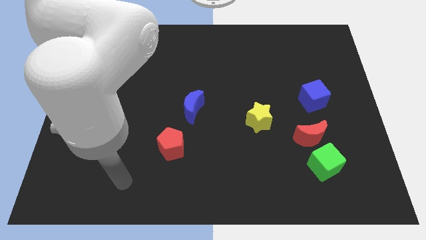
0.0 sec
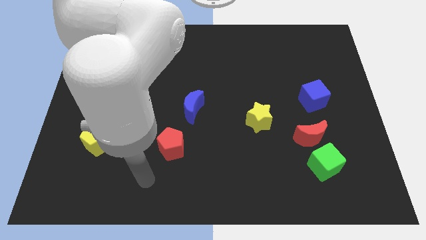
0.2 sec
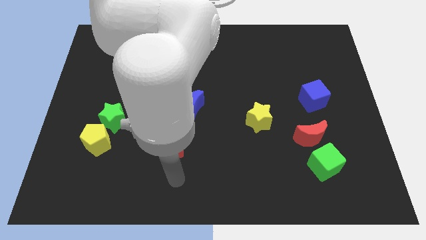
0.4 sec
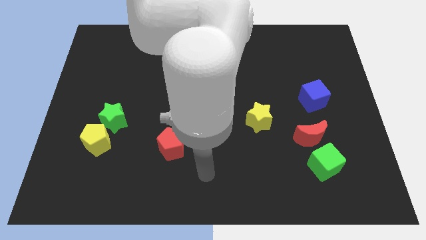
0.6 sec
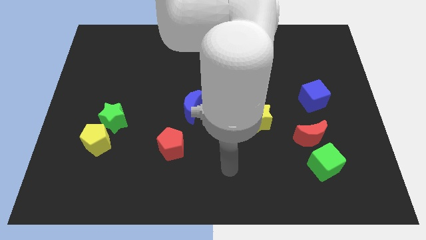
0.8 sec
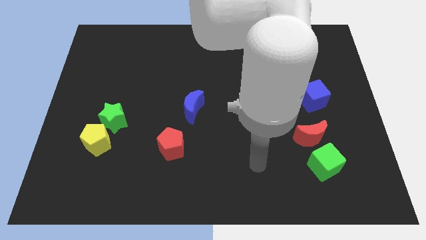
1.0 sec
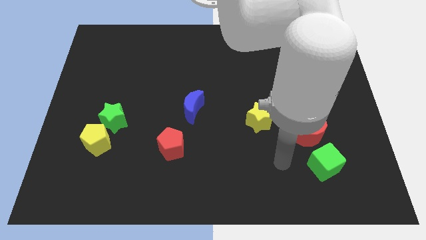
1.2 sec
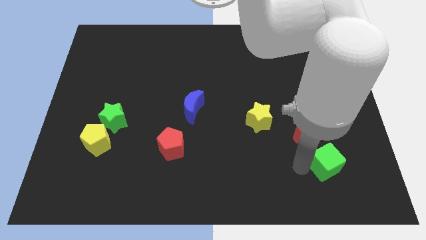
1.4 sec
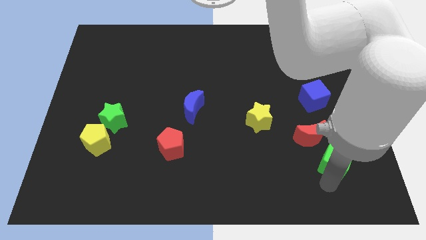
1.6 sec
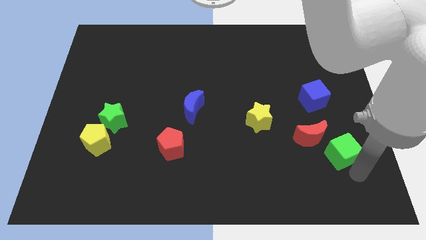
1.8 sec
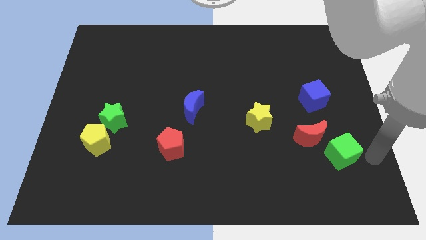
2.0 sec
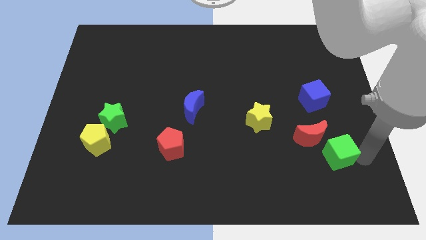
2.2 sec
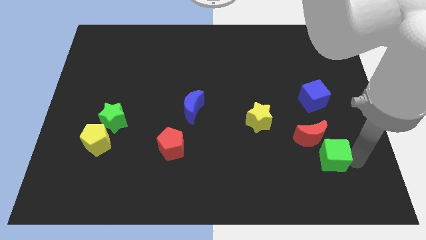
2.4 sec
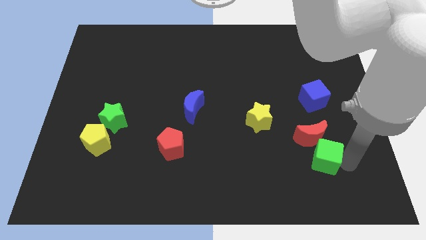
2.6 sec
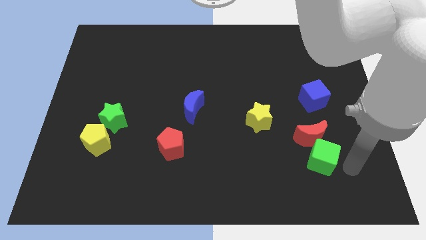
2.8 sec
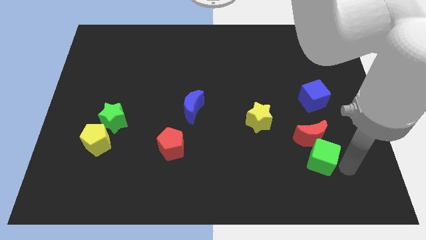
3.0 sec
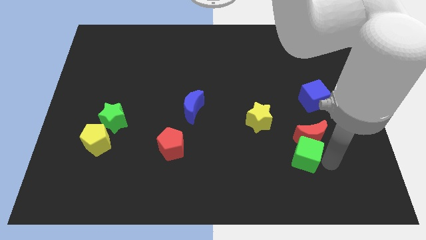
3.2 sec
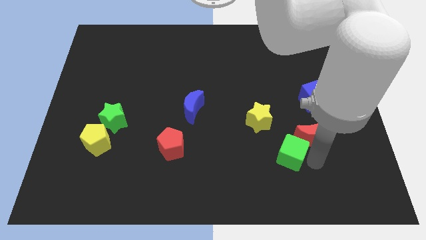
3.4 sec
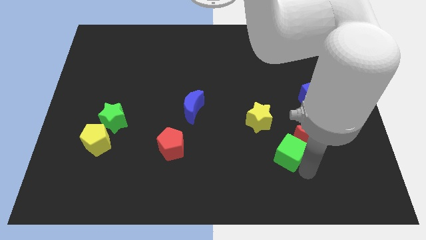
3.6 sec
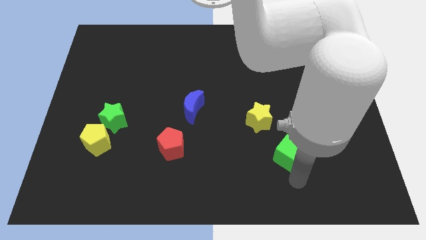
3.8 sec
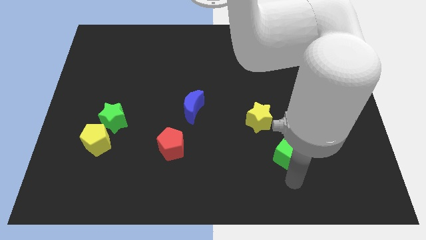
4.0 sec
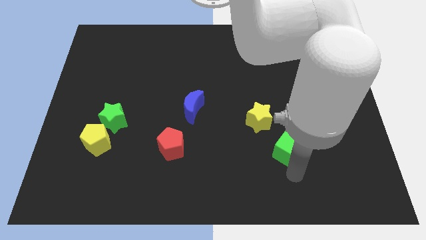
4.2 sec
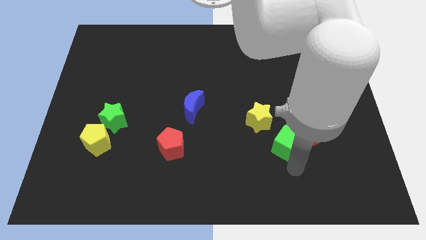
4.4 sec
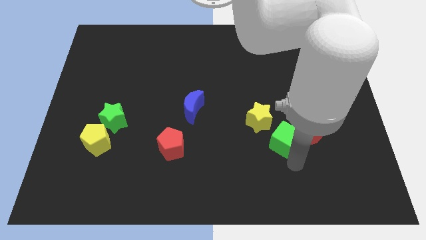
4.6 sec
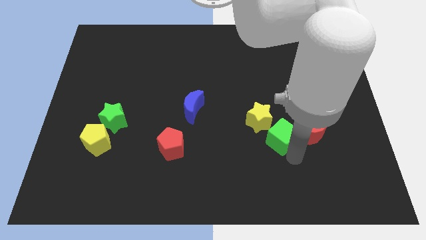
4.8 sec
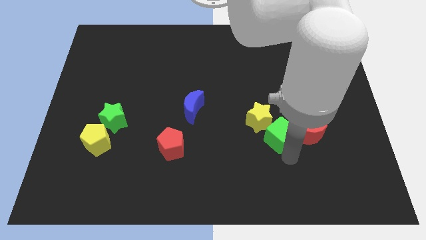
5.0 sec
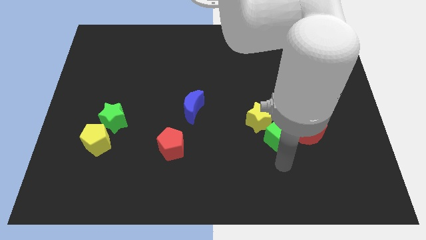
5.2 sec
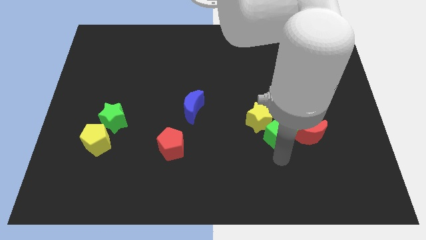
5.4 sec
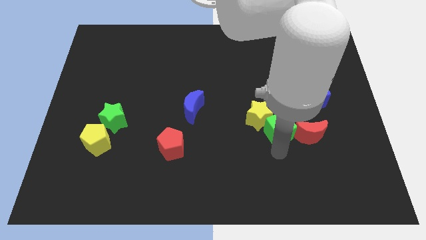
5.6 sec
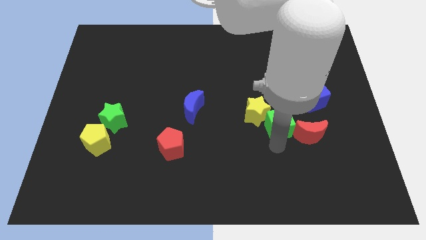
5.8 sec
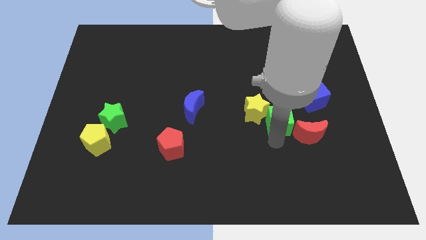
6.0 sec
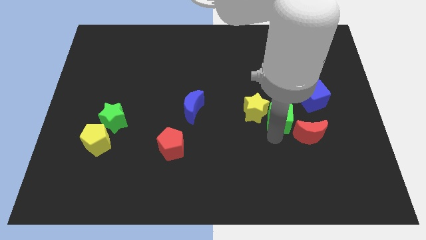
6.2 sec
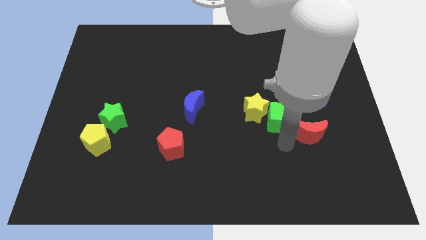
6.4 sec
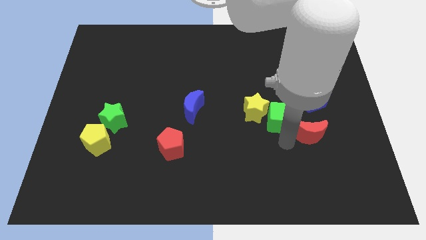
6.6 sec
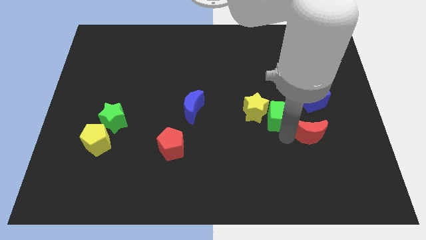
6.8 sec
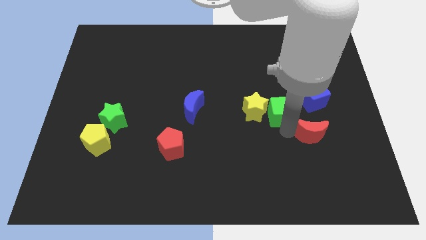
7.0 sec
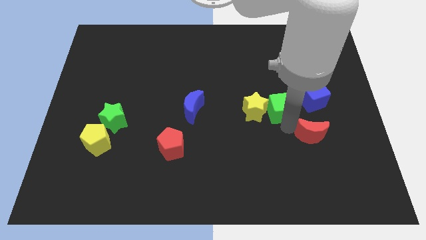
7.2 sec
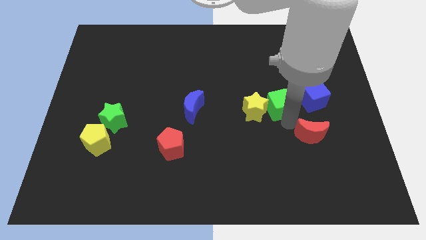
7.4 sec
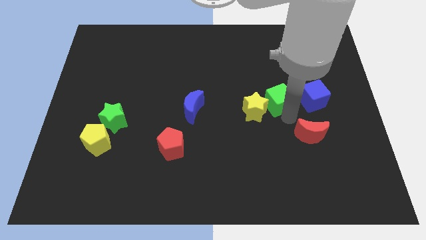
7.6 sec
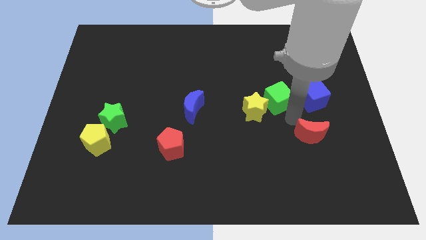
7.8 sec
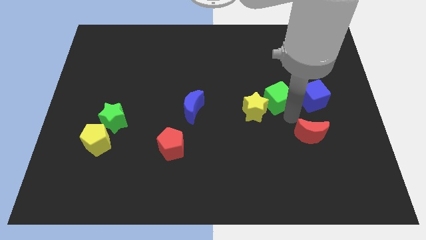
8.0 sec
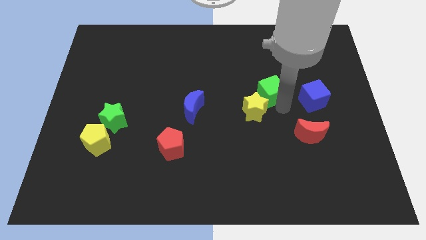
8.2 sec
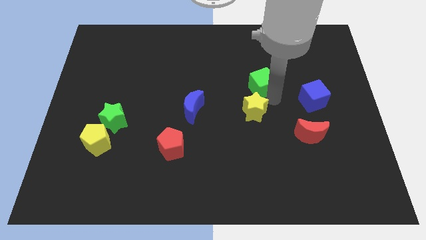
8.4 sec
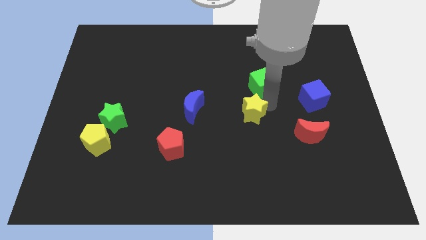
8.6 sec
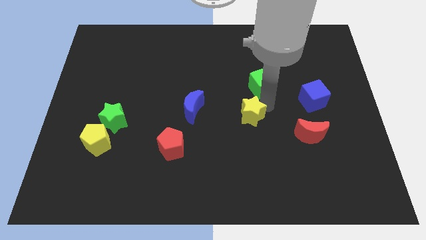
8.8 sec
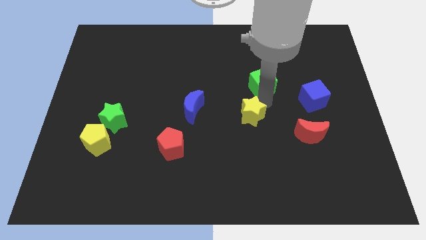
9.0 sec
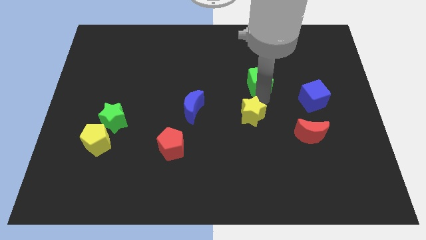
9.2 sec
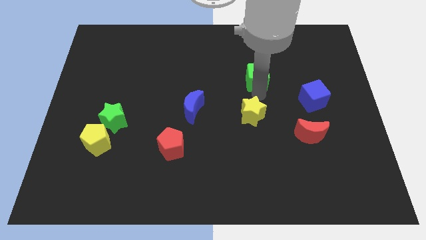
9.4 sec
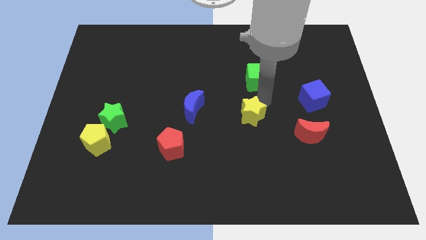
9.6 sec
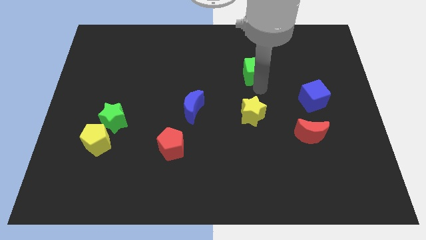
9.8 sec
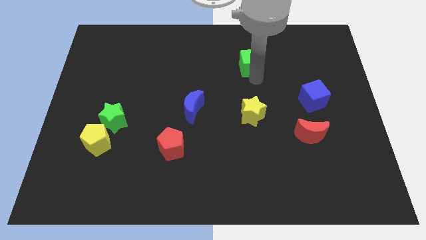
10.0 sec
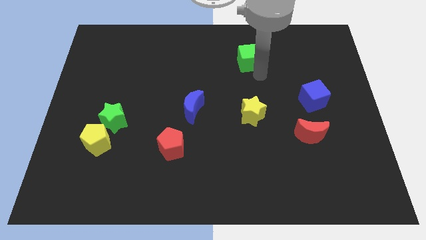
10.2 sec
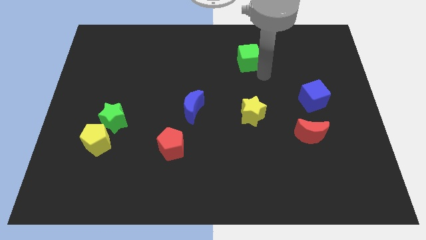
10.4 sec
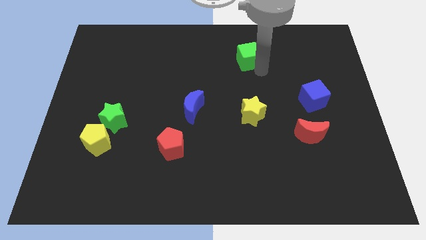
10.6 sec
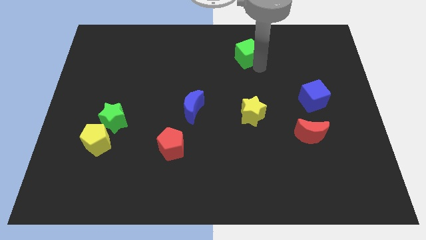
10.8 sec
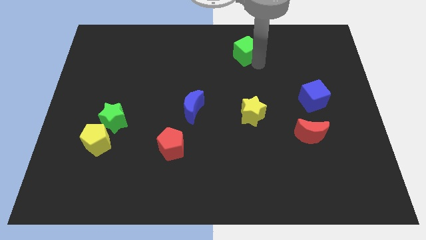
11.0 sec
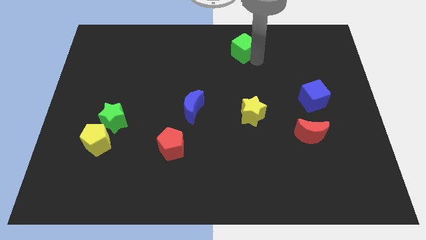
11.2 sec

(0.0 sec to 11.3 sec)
slide the green cube to the top

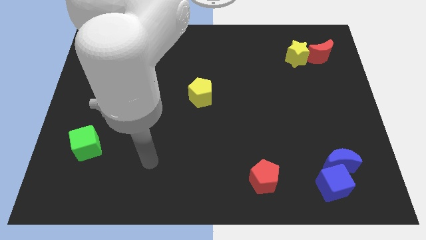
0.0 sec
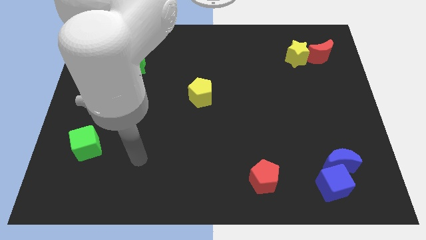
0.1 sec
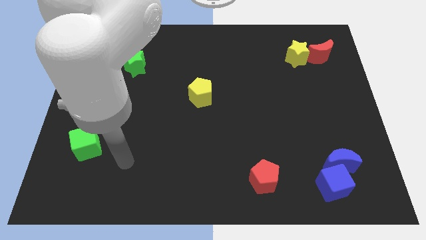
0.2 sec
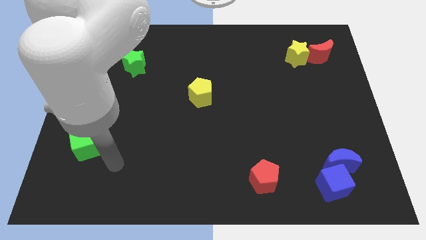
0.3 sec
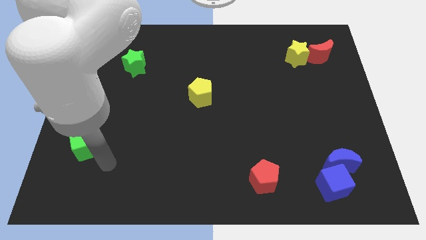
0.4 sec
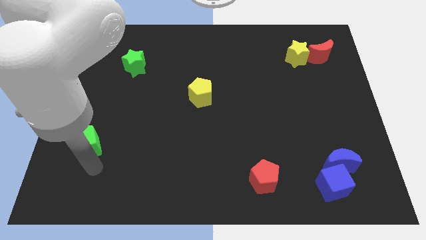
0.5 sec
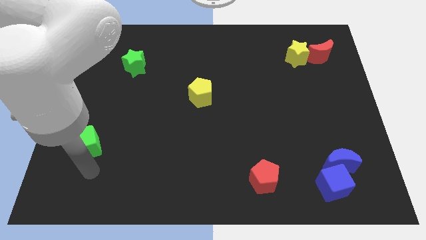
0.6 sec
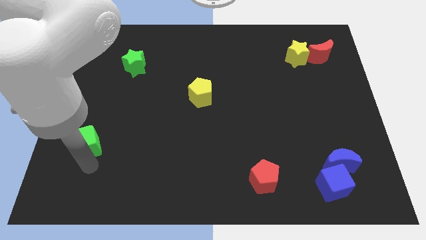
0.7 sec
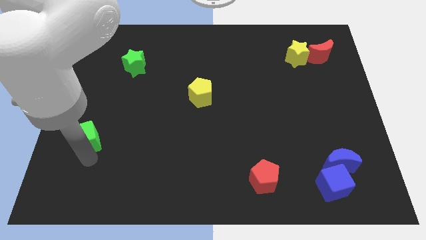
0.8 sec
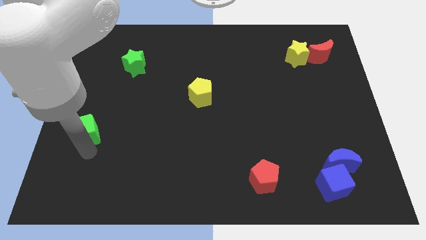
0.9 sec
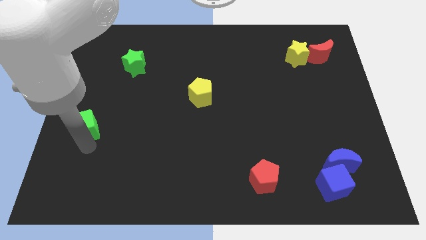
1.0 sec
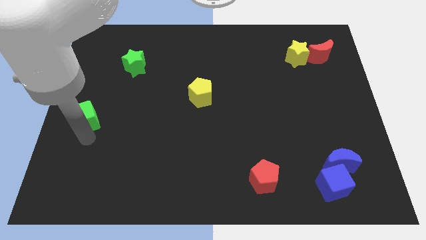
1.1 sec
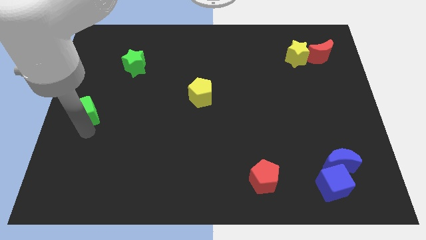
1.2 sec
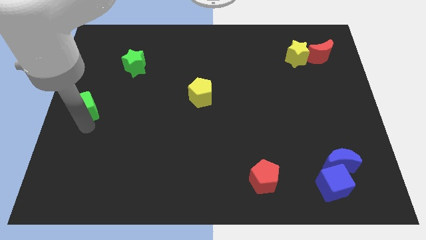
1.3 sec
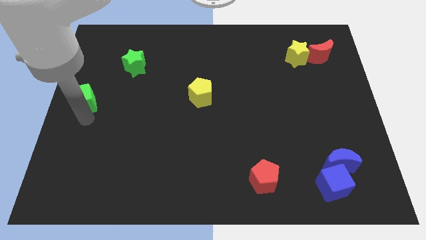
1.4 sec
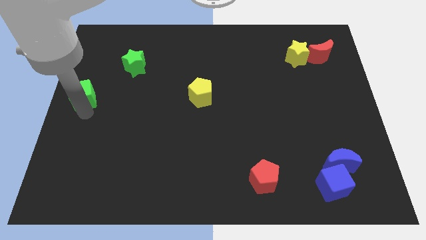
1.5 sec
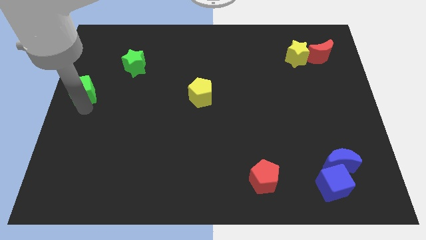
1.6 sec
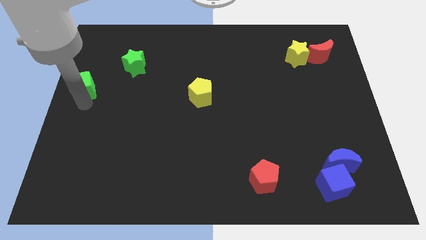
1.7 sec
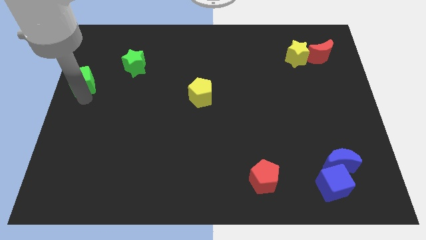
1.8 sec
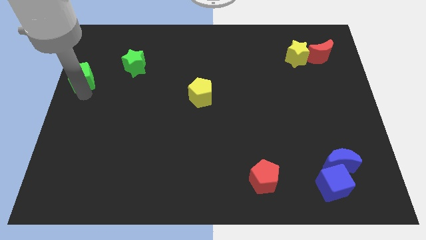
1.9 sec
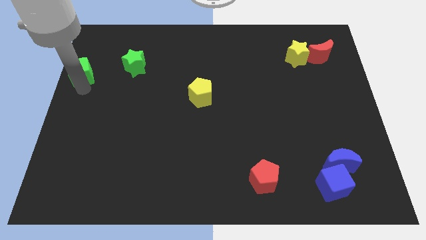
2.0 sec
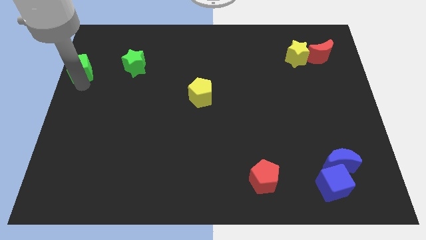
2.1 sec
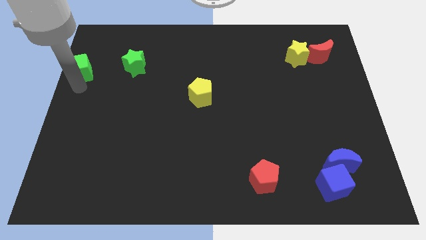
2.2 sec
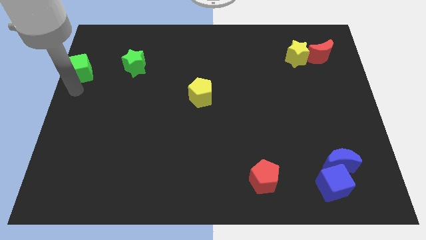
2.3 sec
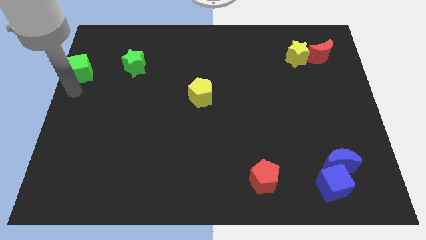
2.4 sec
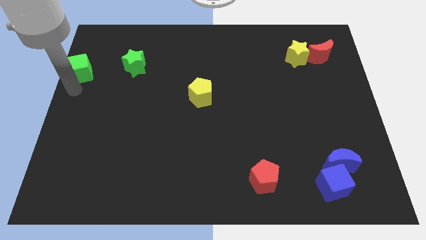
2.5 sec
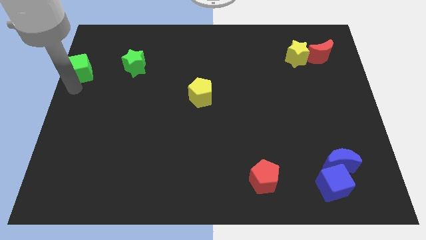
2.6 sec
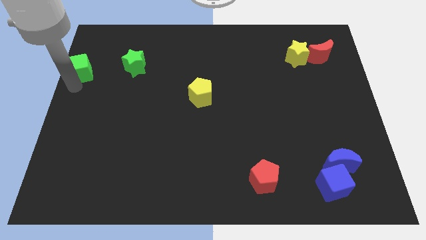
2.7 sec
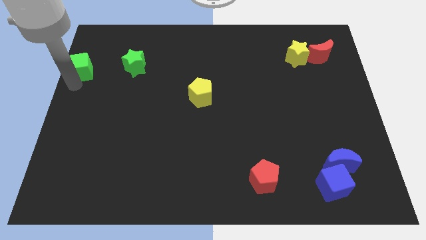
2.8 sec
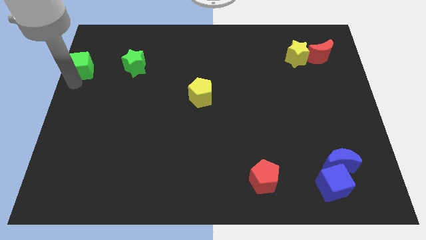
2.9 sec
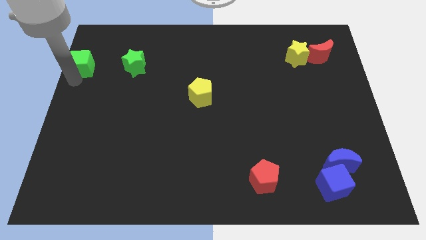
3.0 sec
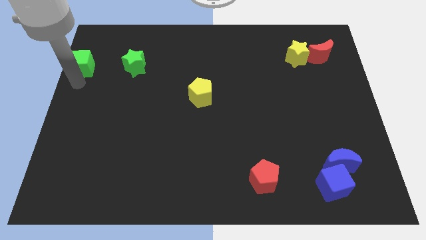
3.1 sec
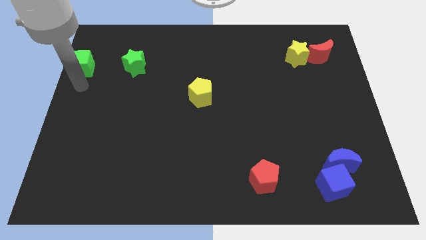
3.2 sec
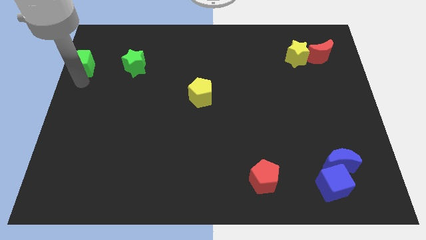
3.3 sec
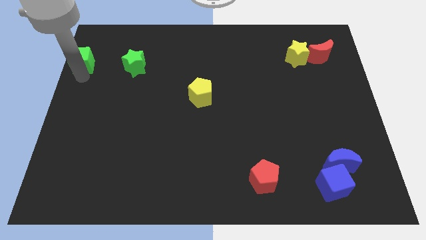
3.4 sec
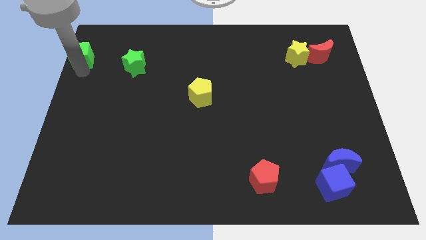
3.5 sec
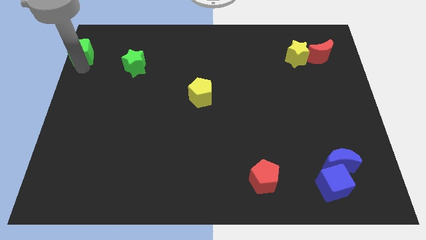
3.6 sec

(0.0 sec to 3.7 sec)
slide the green cube to the top left corner
